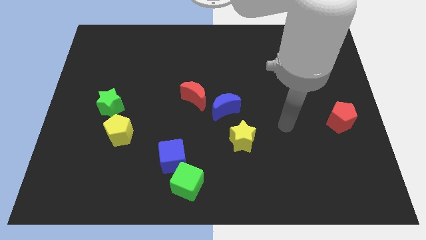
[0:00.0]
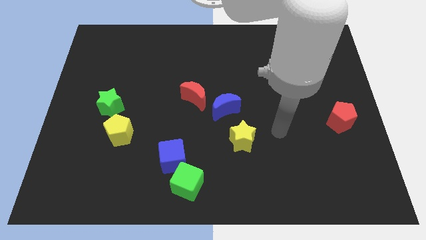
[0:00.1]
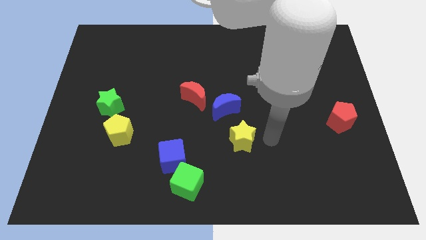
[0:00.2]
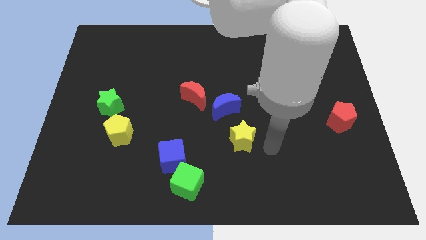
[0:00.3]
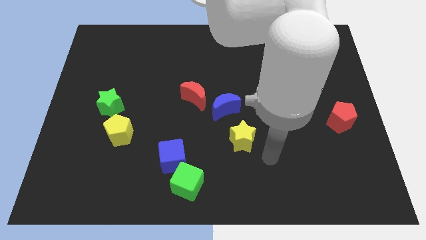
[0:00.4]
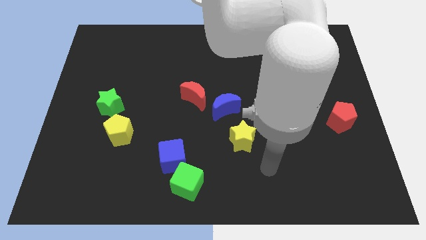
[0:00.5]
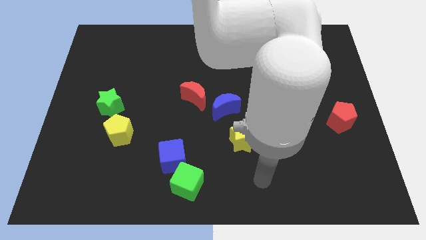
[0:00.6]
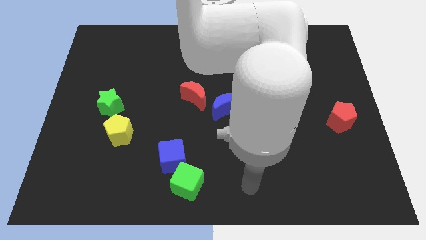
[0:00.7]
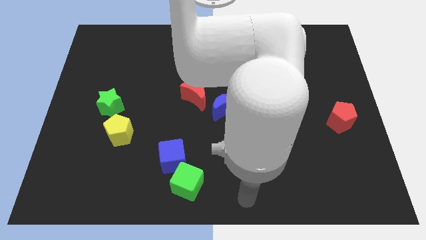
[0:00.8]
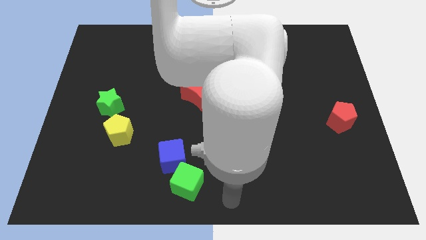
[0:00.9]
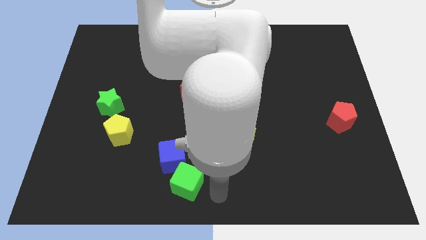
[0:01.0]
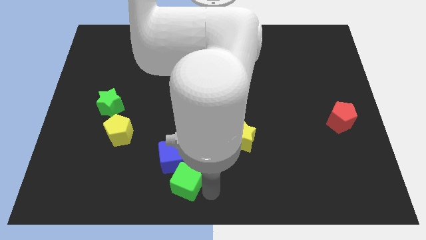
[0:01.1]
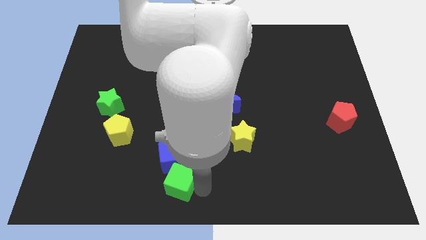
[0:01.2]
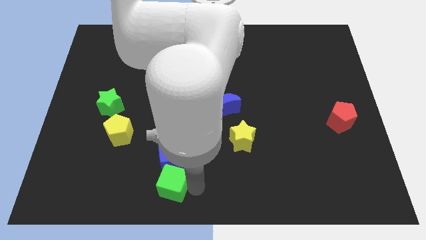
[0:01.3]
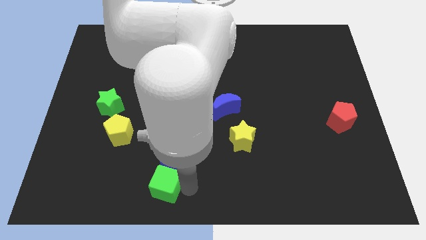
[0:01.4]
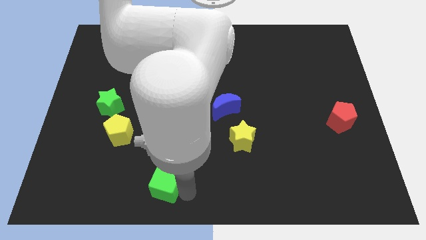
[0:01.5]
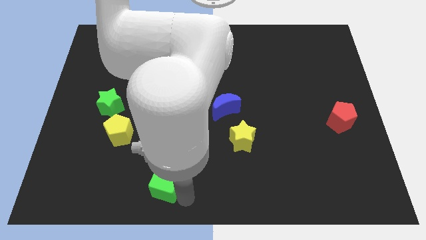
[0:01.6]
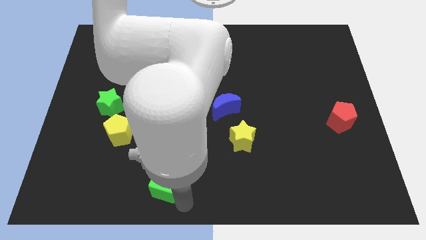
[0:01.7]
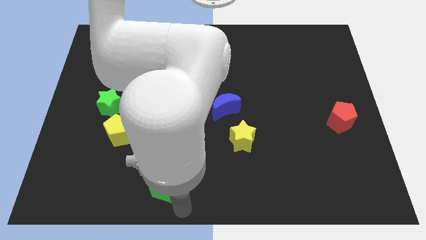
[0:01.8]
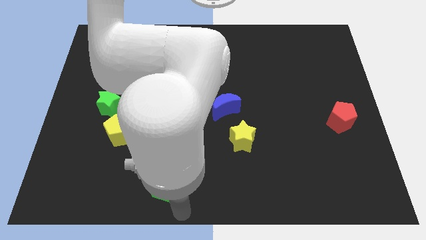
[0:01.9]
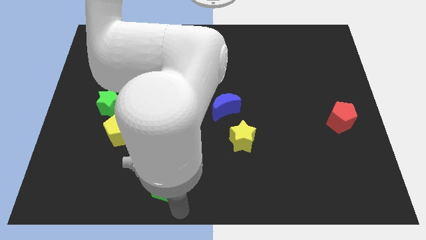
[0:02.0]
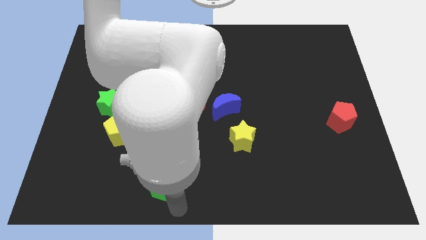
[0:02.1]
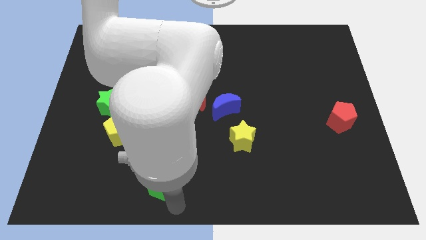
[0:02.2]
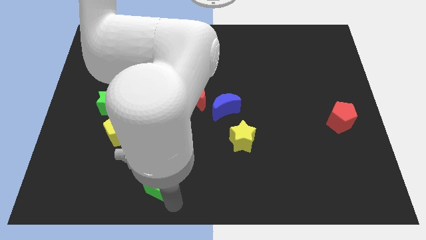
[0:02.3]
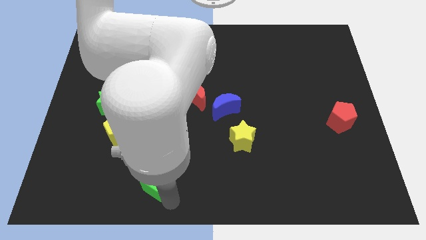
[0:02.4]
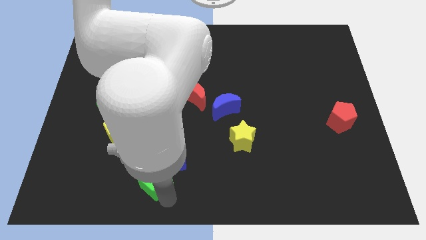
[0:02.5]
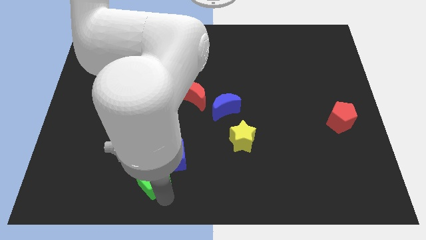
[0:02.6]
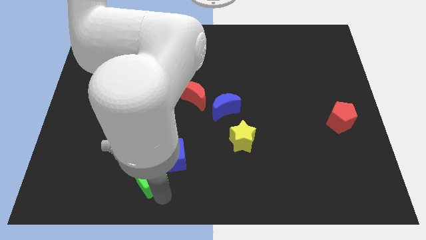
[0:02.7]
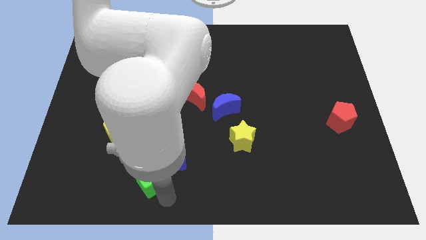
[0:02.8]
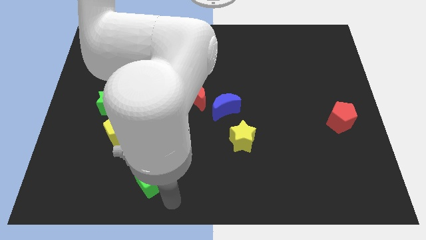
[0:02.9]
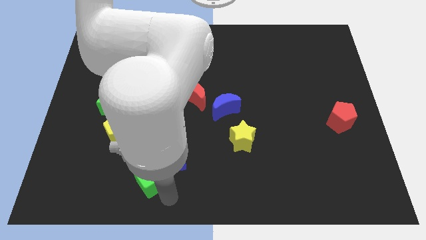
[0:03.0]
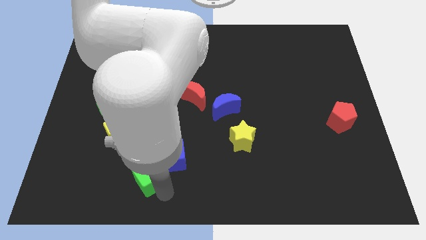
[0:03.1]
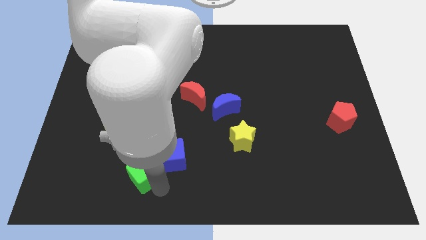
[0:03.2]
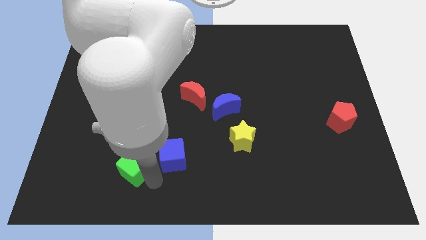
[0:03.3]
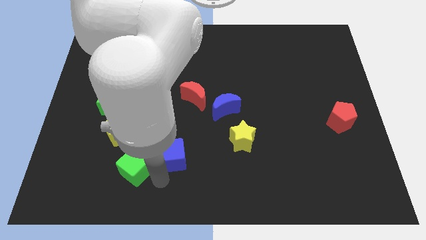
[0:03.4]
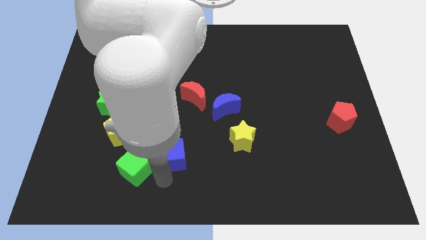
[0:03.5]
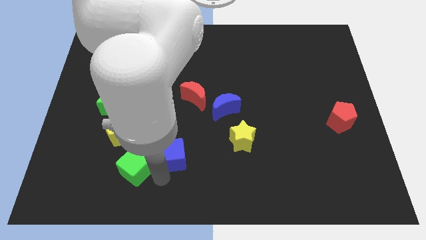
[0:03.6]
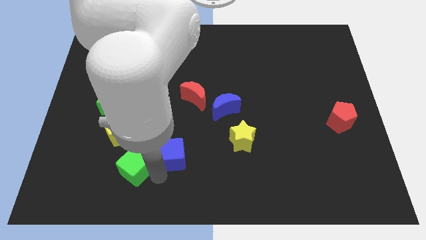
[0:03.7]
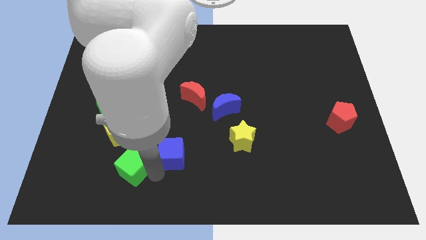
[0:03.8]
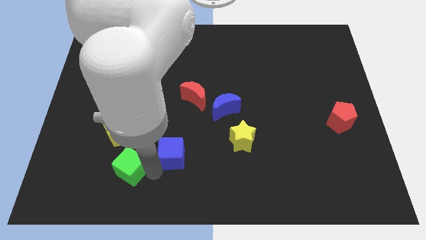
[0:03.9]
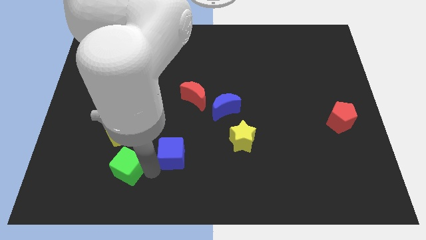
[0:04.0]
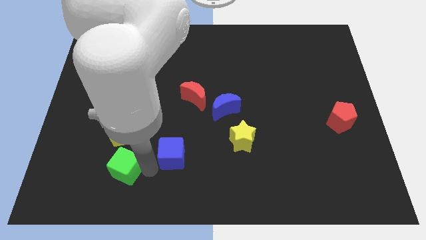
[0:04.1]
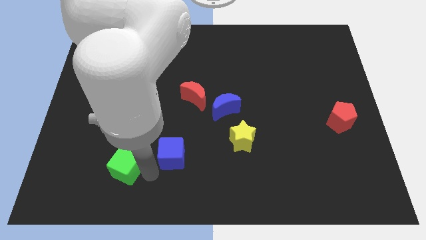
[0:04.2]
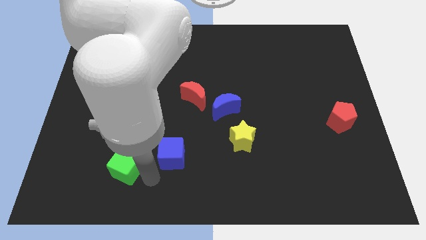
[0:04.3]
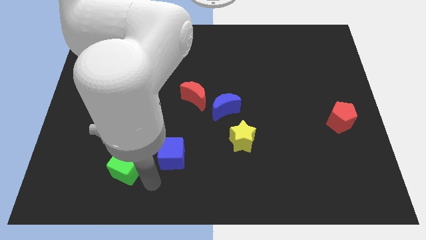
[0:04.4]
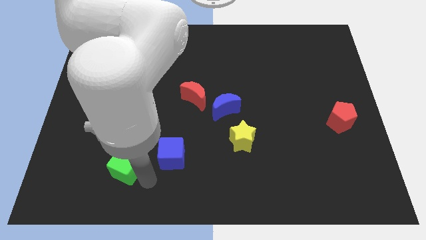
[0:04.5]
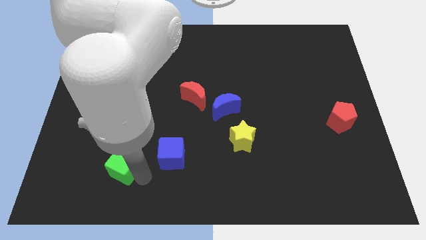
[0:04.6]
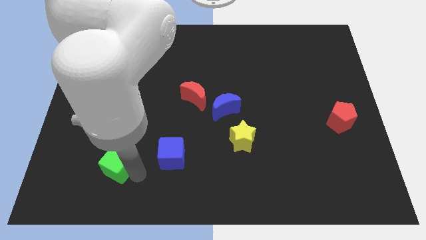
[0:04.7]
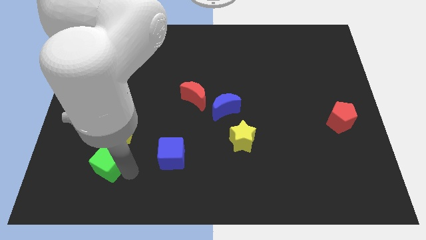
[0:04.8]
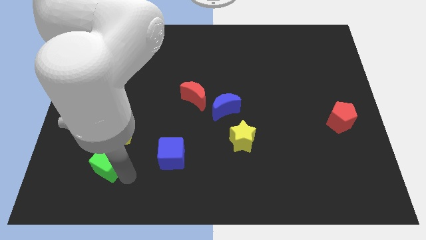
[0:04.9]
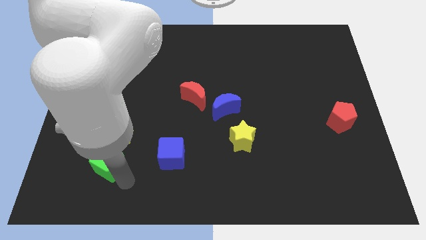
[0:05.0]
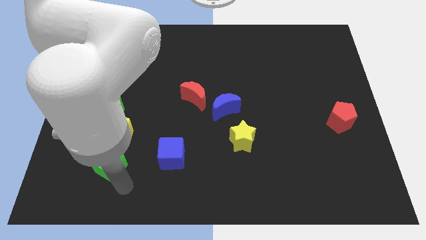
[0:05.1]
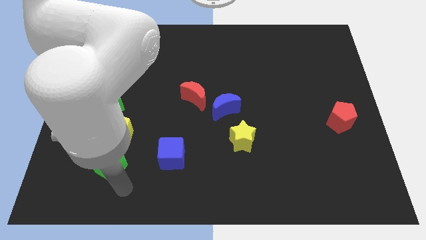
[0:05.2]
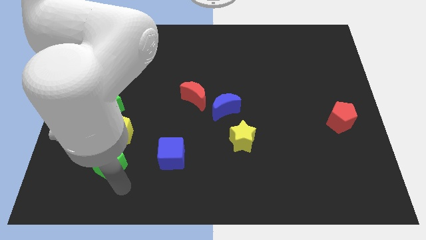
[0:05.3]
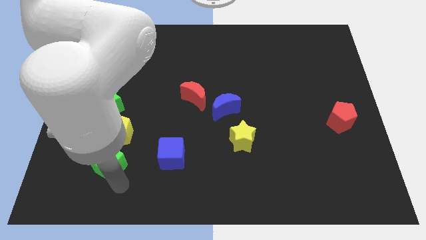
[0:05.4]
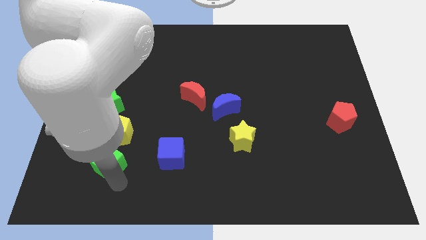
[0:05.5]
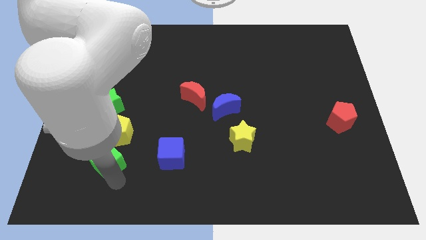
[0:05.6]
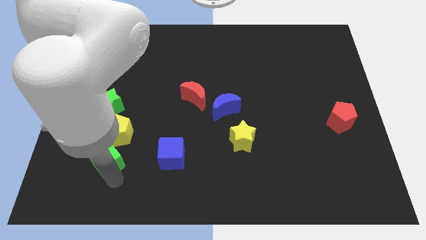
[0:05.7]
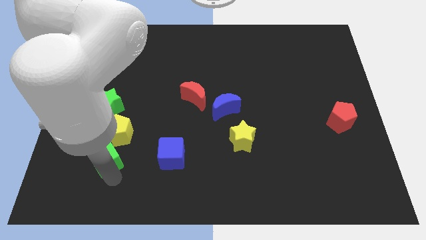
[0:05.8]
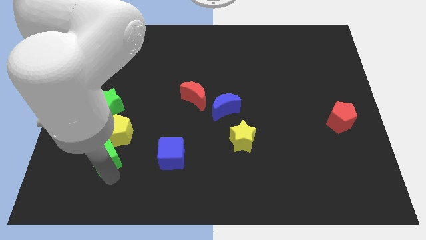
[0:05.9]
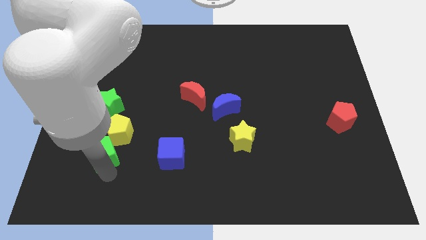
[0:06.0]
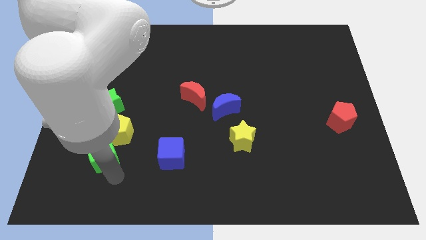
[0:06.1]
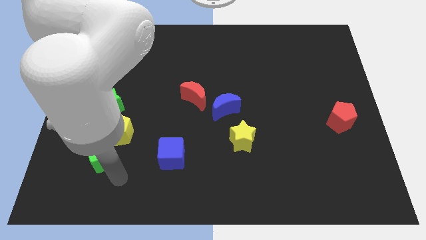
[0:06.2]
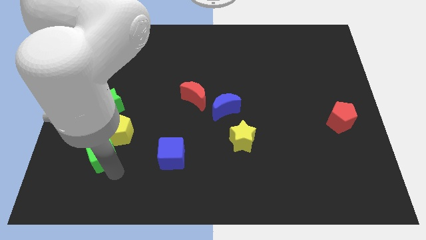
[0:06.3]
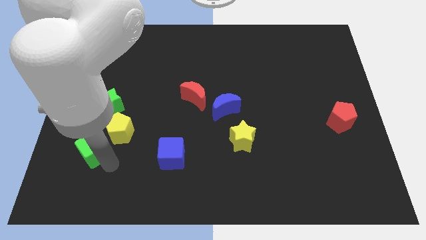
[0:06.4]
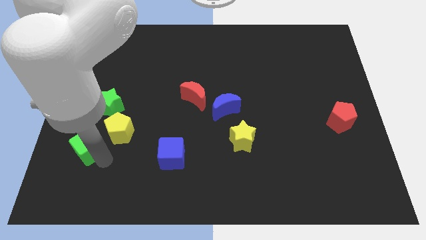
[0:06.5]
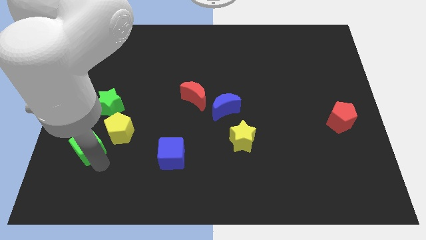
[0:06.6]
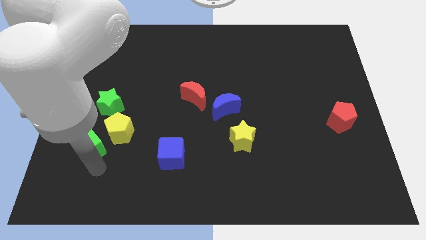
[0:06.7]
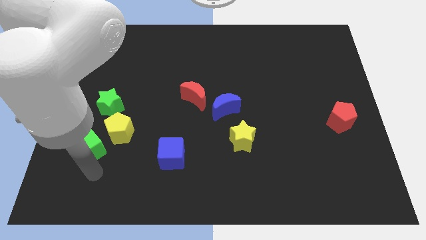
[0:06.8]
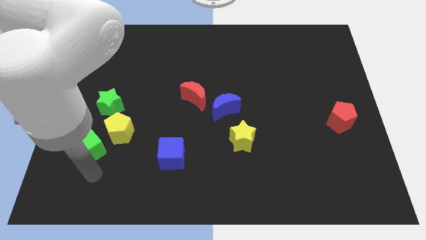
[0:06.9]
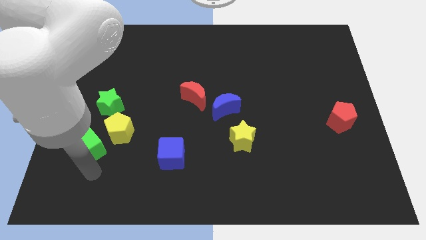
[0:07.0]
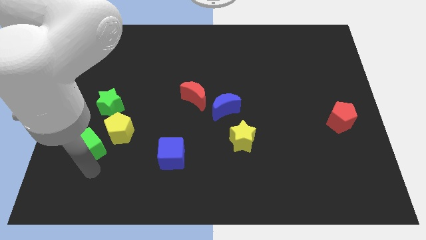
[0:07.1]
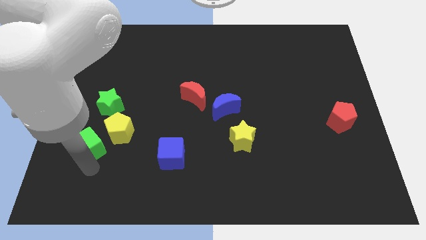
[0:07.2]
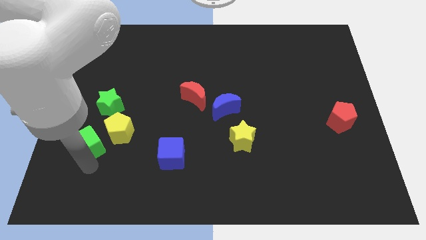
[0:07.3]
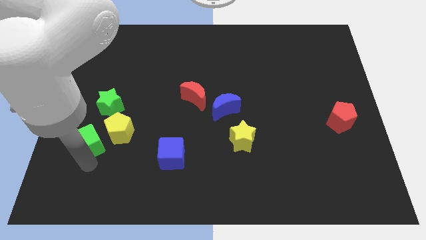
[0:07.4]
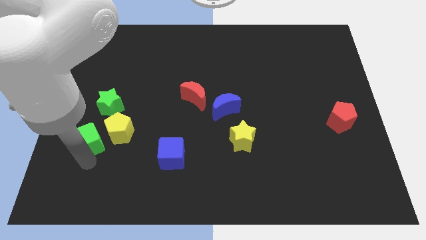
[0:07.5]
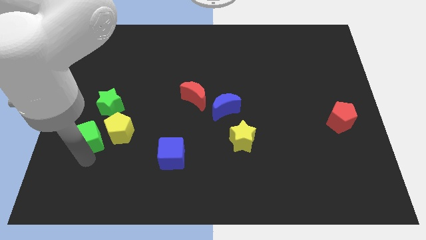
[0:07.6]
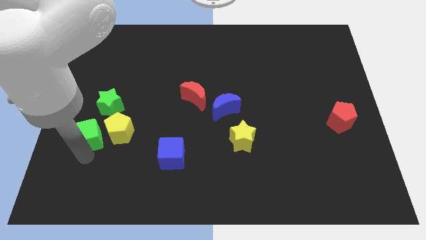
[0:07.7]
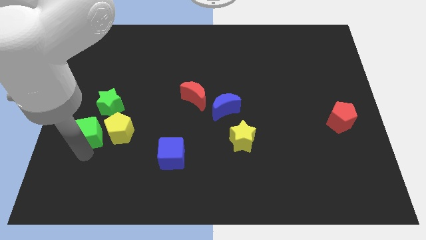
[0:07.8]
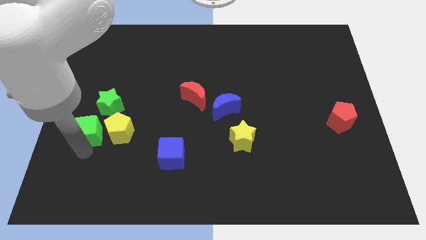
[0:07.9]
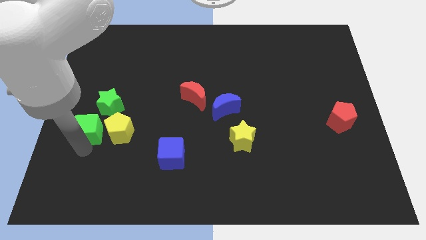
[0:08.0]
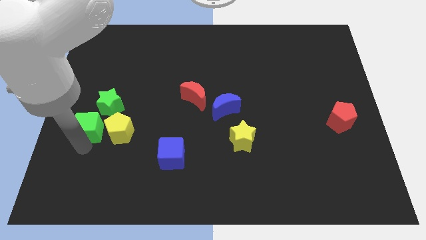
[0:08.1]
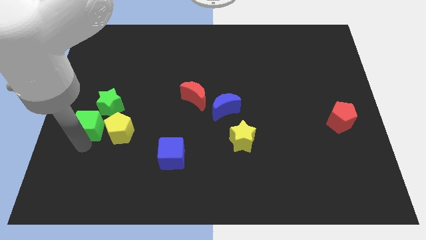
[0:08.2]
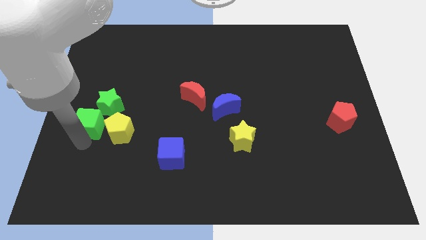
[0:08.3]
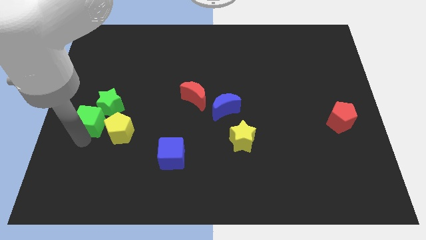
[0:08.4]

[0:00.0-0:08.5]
put the green cube to the green star
